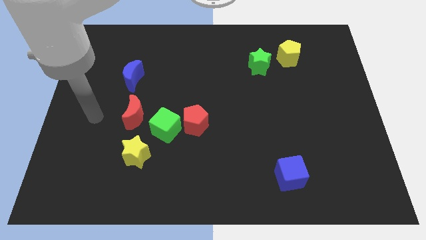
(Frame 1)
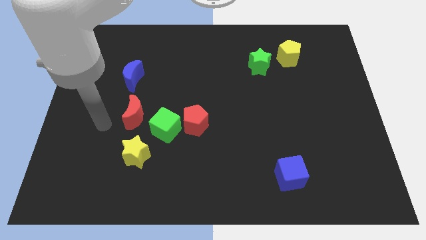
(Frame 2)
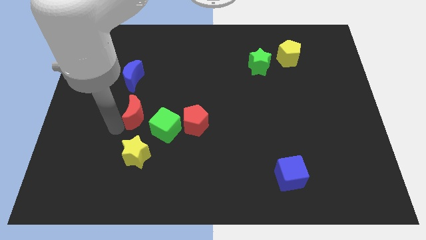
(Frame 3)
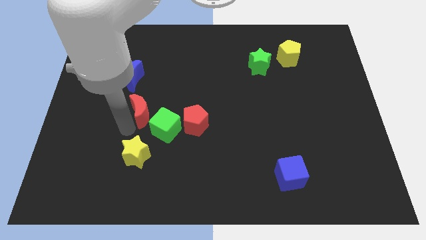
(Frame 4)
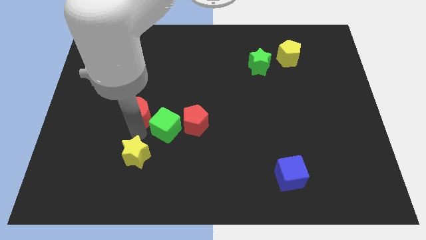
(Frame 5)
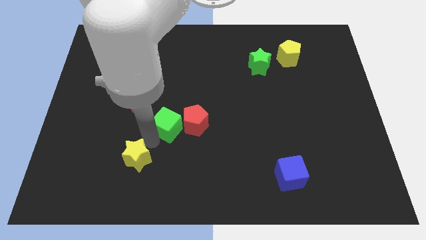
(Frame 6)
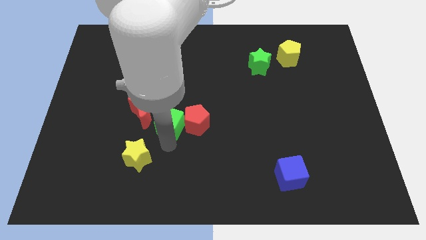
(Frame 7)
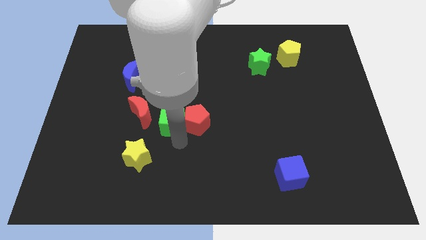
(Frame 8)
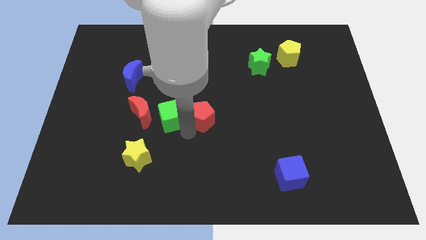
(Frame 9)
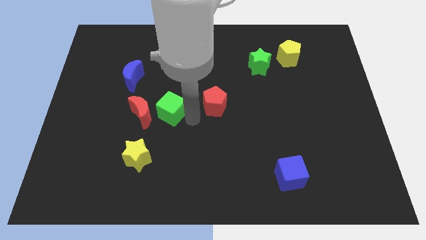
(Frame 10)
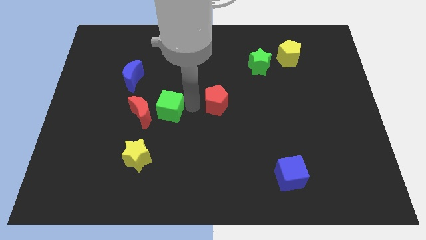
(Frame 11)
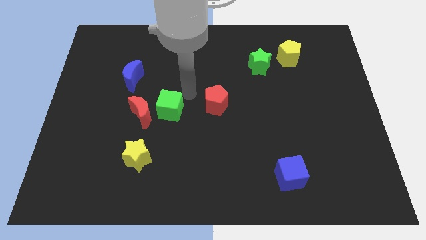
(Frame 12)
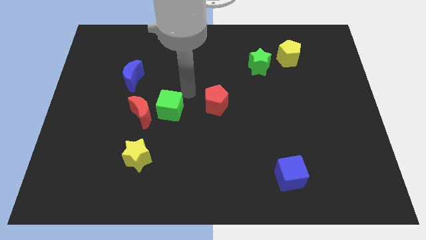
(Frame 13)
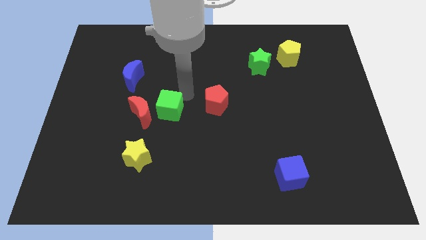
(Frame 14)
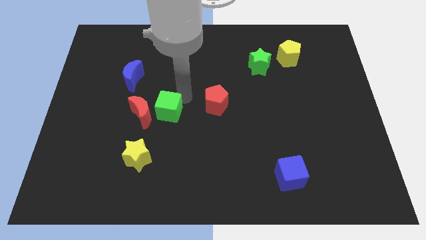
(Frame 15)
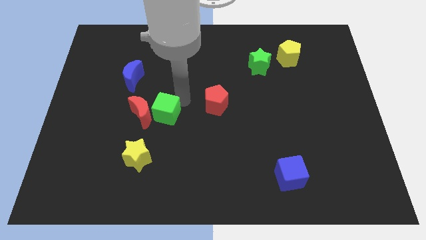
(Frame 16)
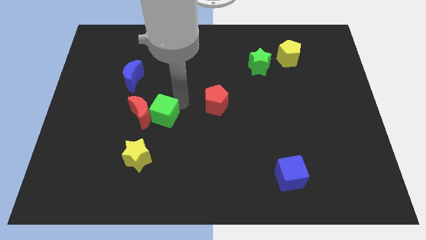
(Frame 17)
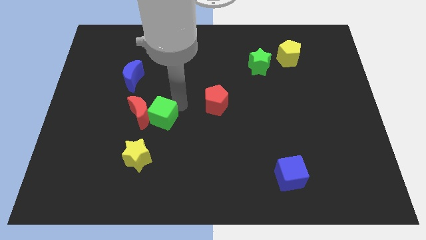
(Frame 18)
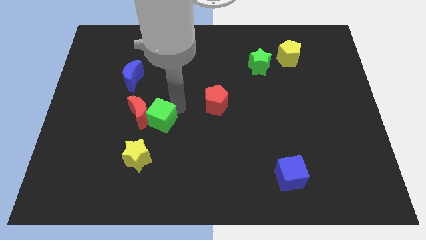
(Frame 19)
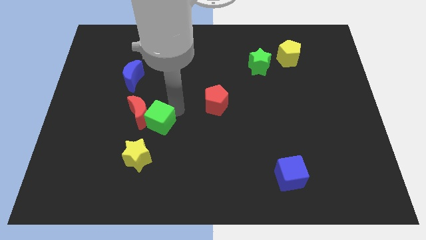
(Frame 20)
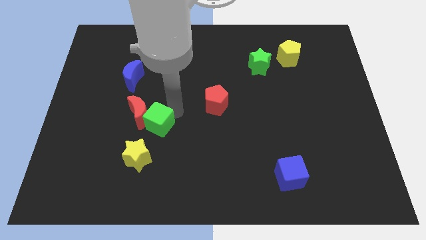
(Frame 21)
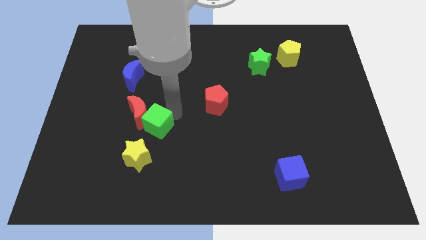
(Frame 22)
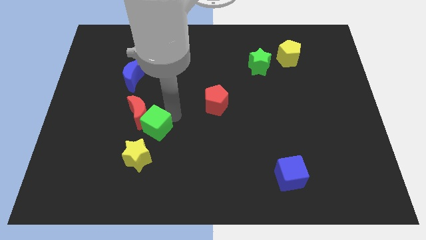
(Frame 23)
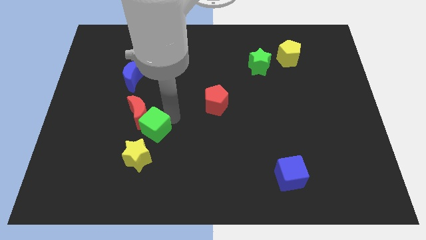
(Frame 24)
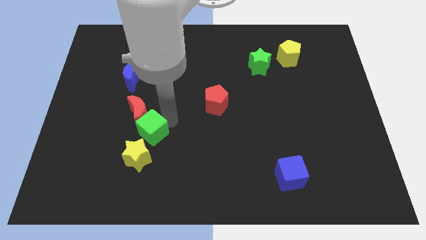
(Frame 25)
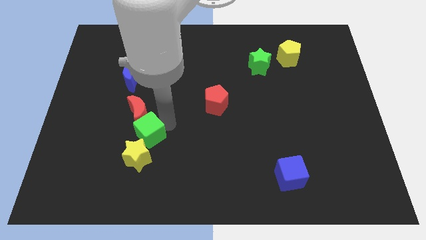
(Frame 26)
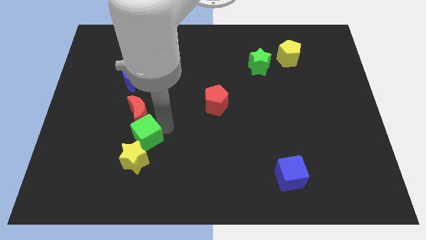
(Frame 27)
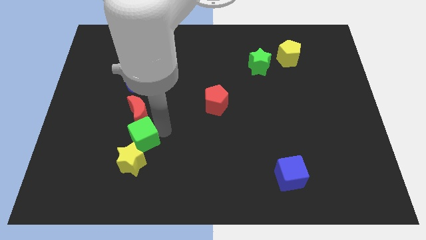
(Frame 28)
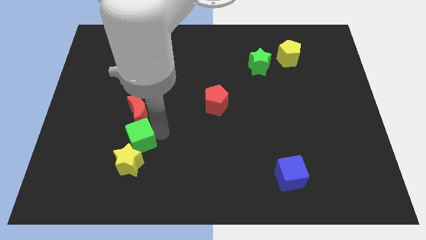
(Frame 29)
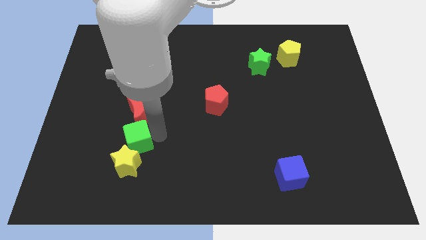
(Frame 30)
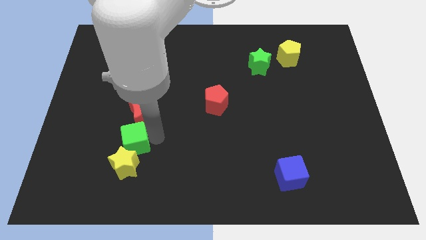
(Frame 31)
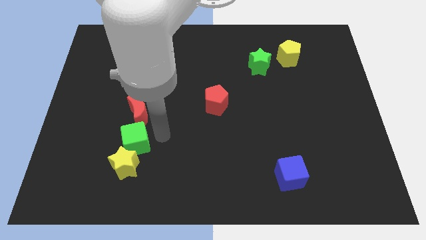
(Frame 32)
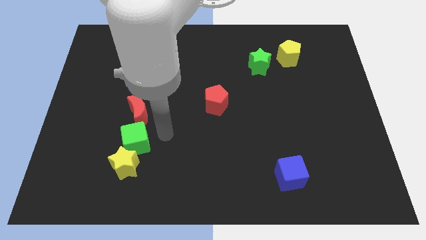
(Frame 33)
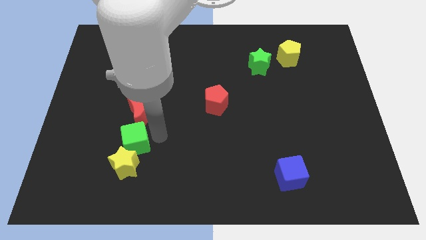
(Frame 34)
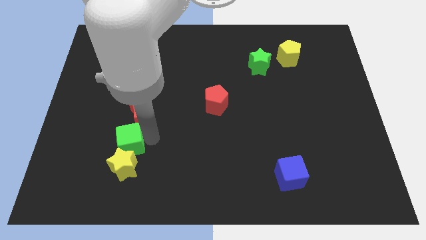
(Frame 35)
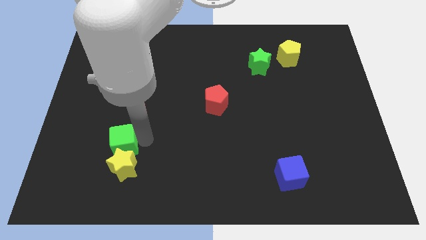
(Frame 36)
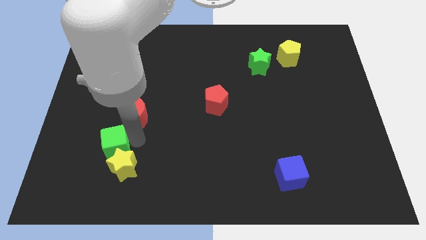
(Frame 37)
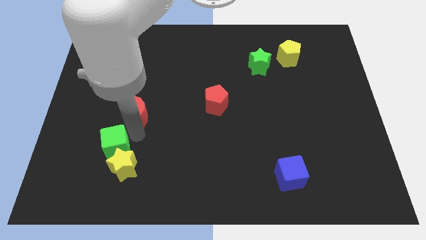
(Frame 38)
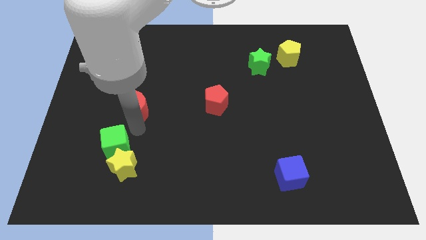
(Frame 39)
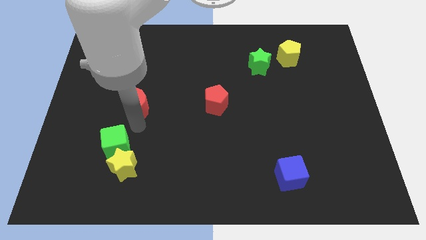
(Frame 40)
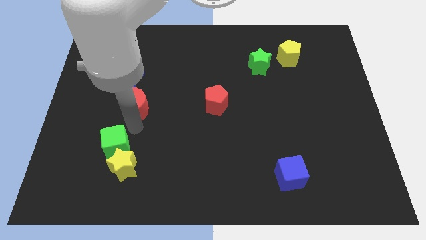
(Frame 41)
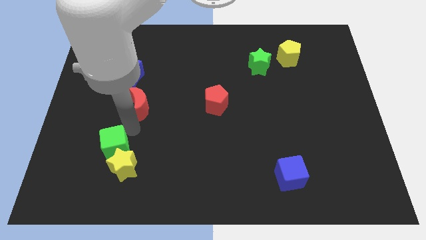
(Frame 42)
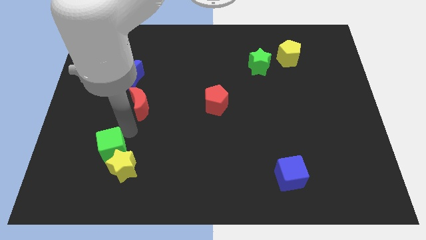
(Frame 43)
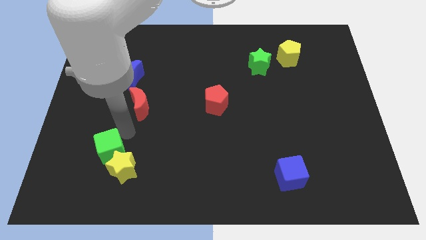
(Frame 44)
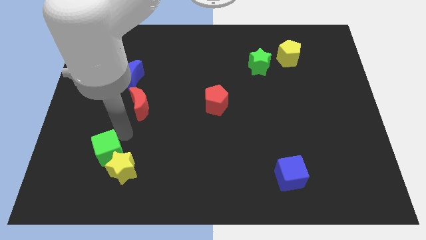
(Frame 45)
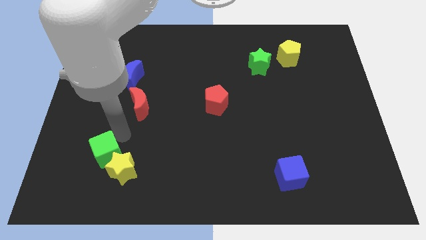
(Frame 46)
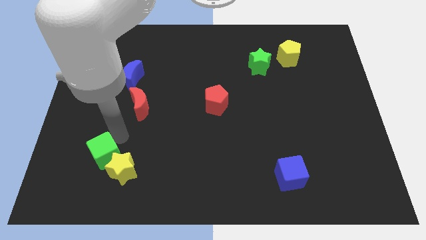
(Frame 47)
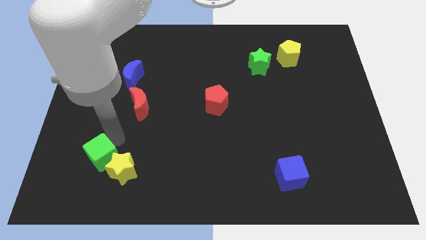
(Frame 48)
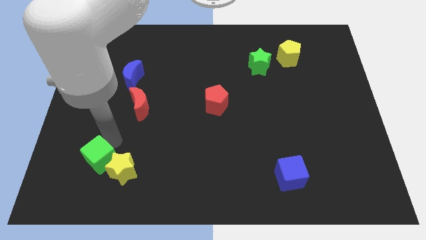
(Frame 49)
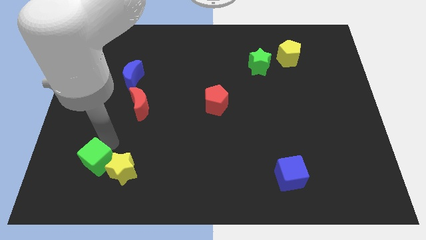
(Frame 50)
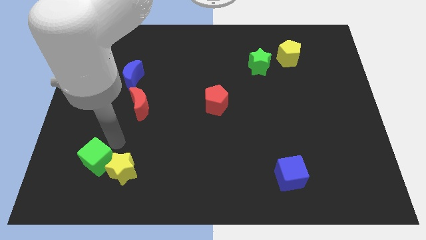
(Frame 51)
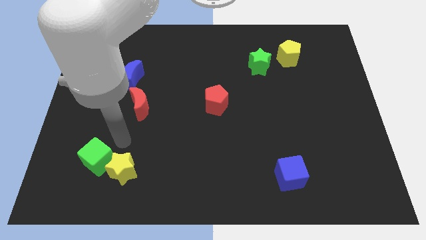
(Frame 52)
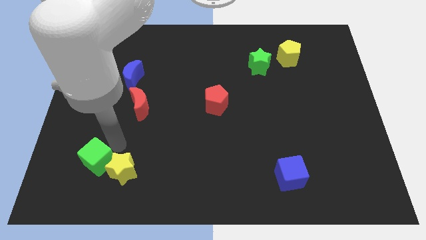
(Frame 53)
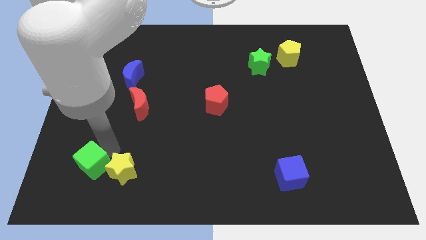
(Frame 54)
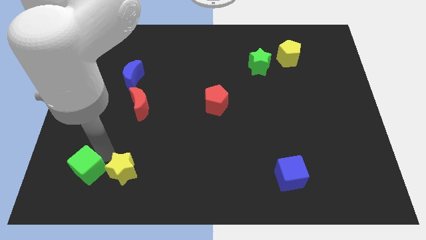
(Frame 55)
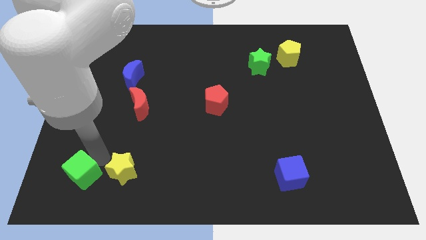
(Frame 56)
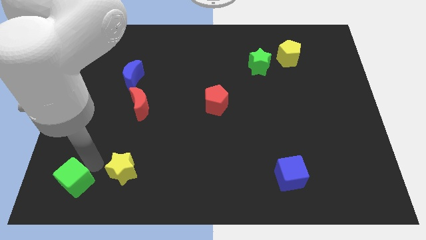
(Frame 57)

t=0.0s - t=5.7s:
move the green cube to the bottom left of the board
